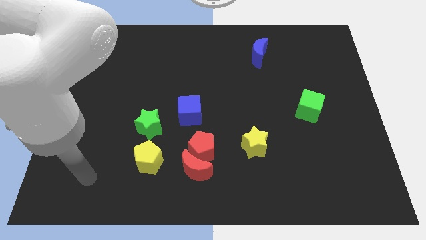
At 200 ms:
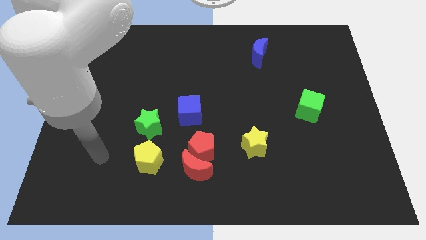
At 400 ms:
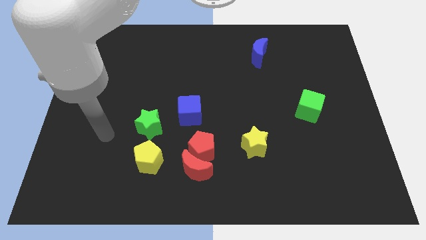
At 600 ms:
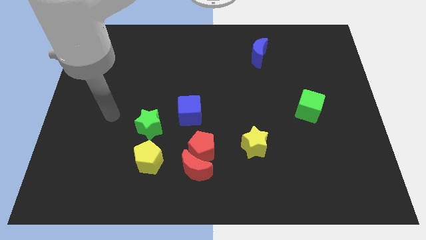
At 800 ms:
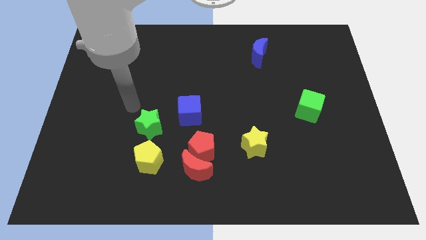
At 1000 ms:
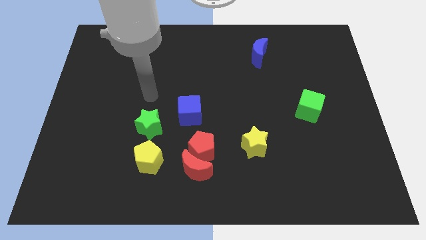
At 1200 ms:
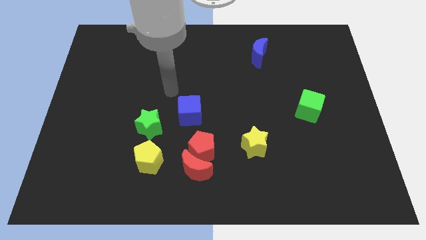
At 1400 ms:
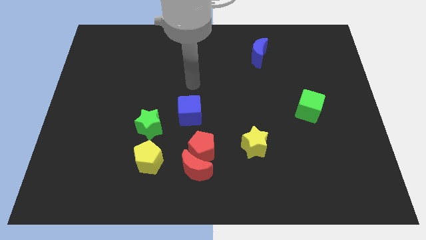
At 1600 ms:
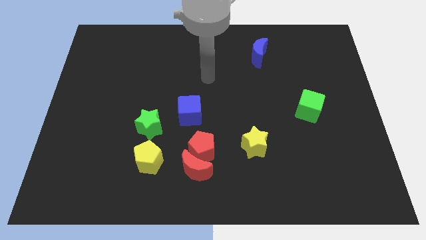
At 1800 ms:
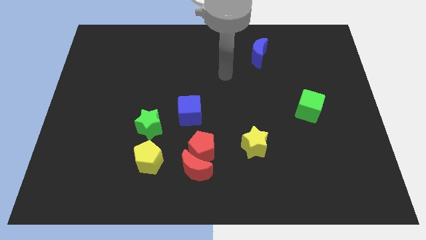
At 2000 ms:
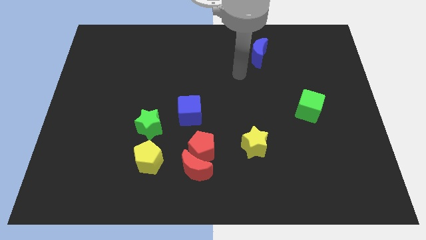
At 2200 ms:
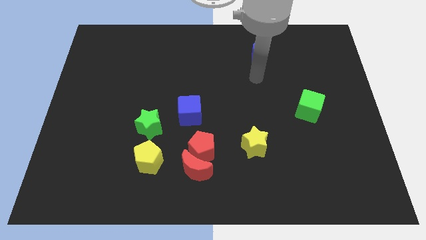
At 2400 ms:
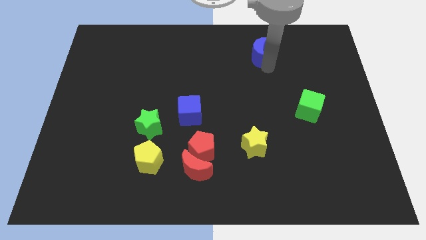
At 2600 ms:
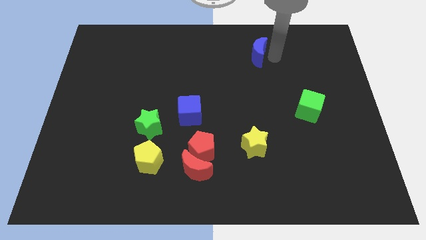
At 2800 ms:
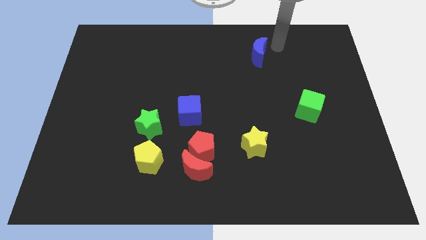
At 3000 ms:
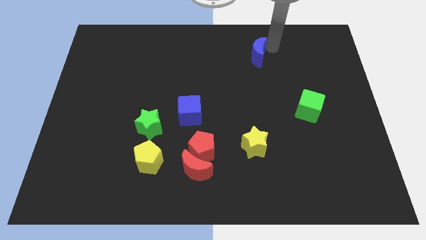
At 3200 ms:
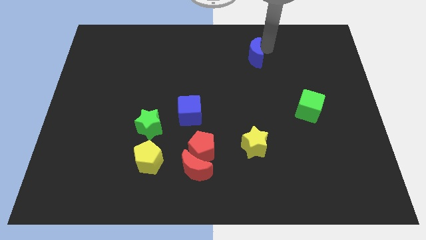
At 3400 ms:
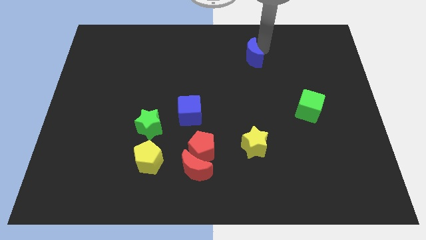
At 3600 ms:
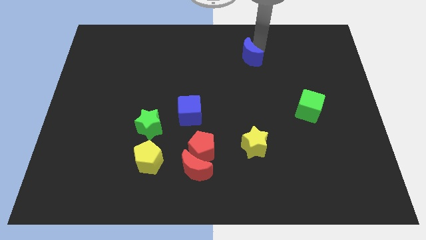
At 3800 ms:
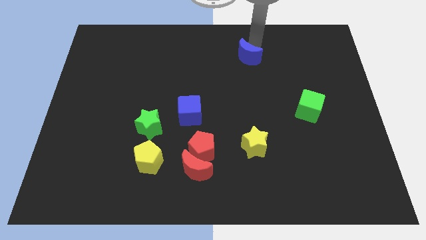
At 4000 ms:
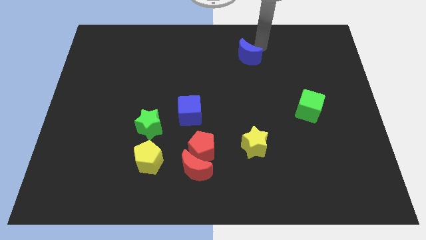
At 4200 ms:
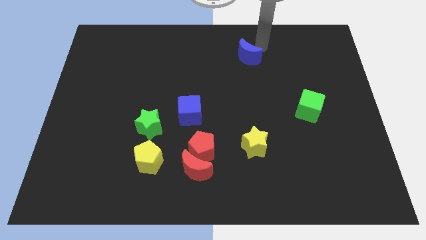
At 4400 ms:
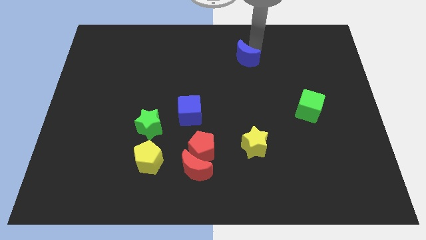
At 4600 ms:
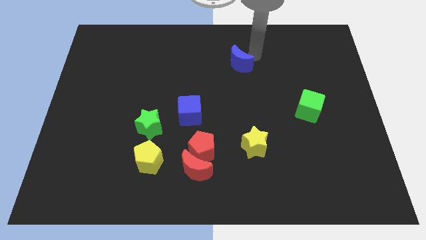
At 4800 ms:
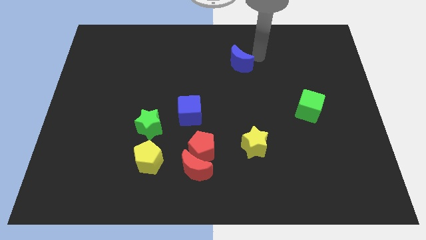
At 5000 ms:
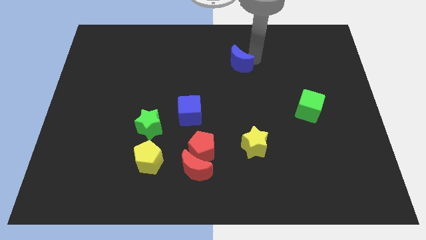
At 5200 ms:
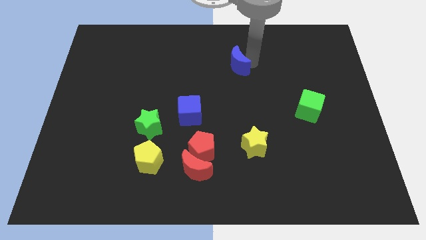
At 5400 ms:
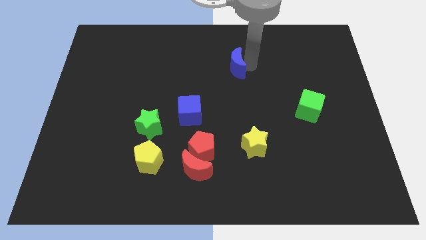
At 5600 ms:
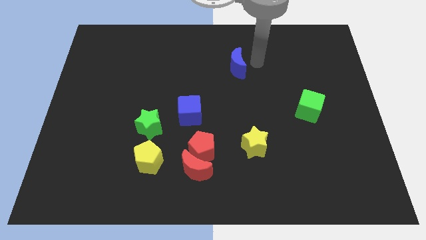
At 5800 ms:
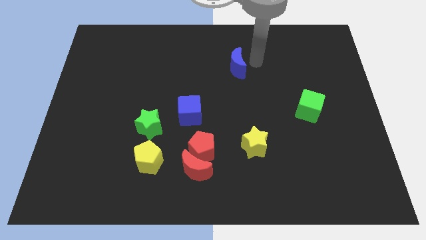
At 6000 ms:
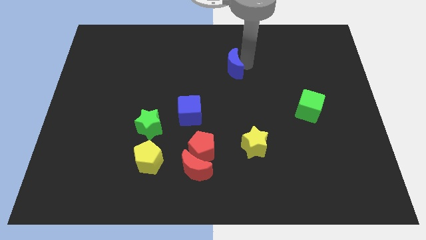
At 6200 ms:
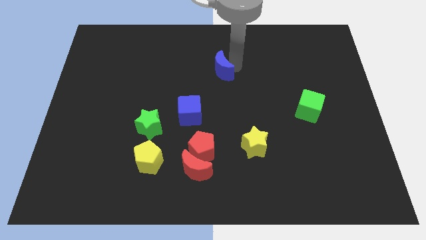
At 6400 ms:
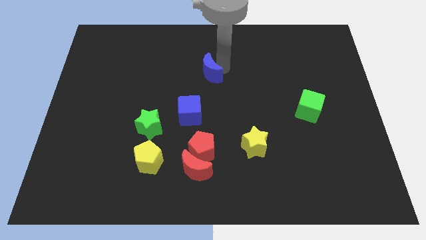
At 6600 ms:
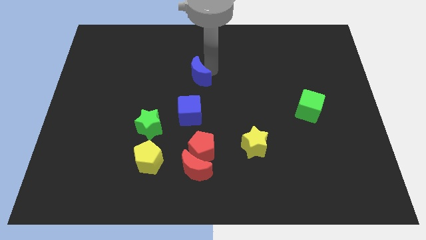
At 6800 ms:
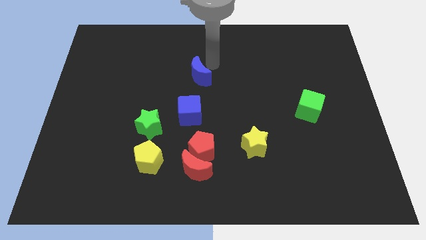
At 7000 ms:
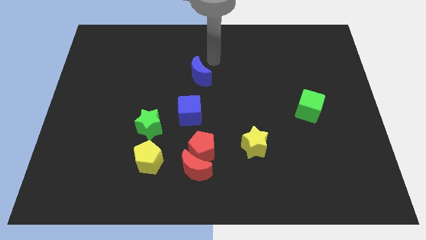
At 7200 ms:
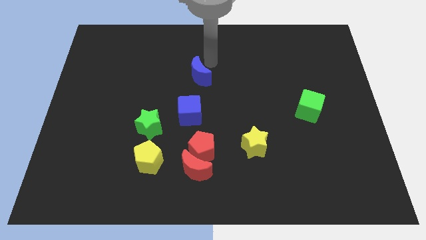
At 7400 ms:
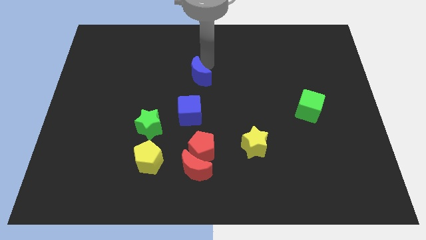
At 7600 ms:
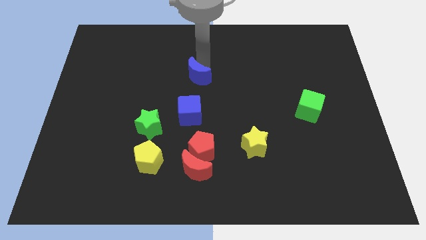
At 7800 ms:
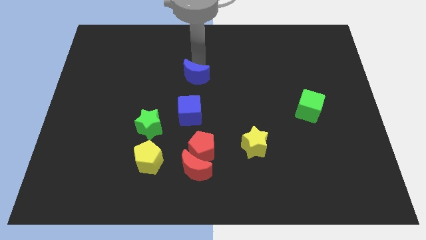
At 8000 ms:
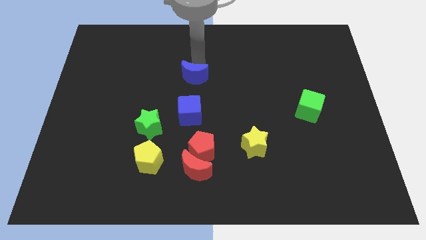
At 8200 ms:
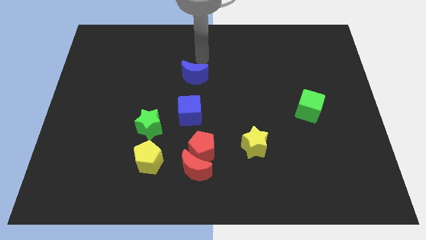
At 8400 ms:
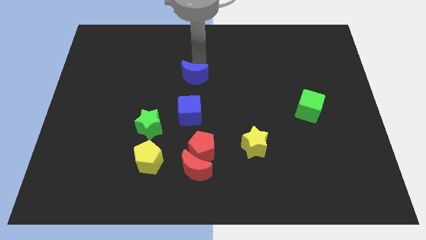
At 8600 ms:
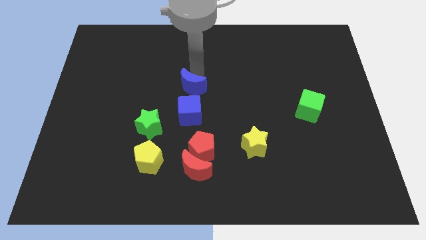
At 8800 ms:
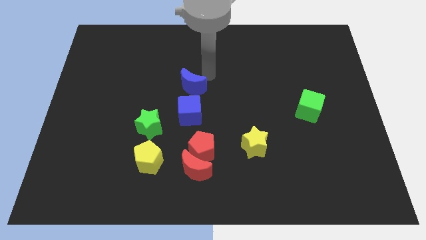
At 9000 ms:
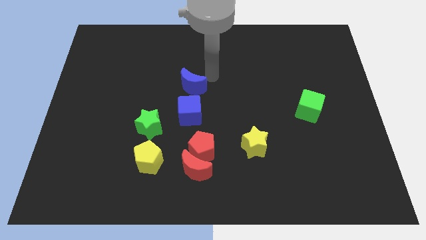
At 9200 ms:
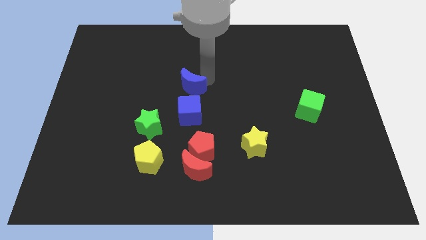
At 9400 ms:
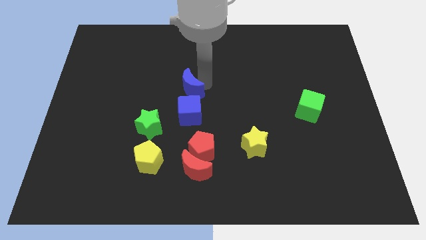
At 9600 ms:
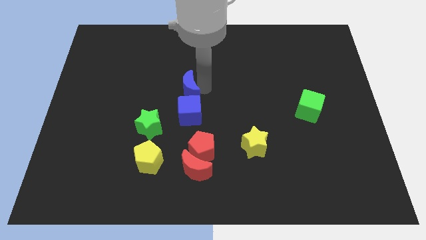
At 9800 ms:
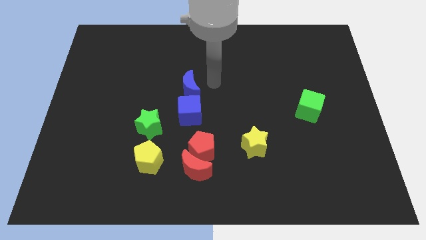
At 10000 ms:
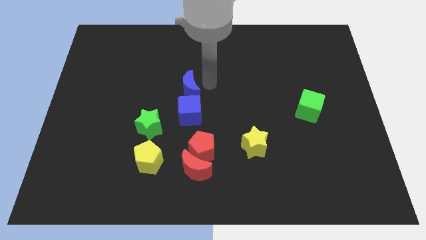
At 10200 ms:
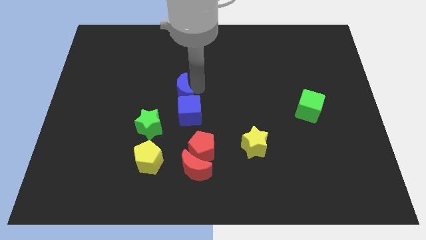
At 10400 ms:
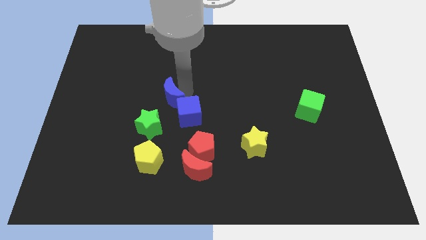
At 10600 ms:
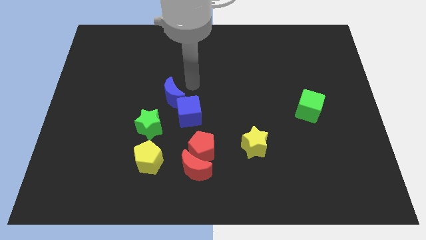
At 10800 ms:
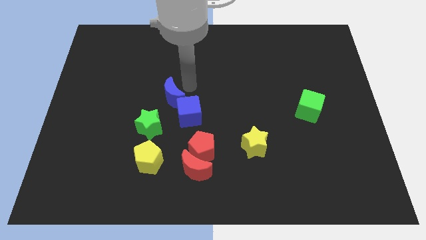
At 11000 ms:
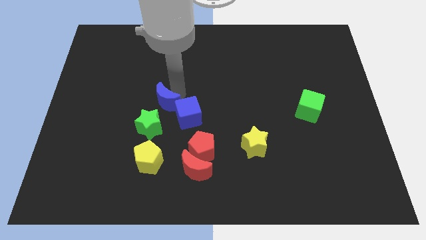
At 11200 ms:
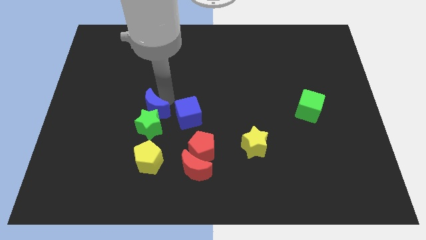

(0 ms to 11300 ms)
push the blue moon to the green star

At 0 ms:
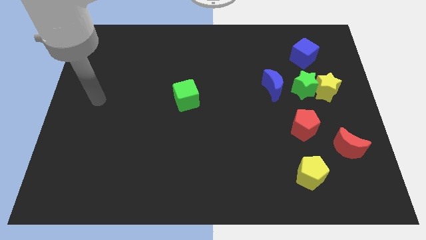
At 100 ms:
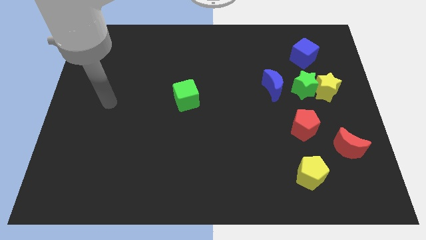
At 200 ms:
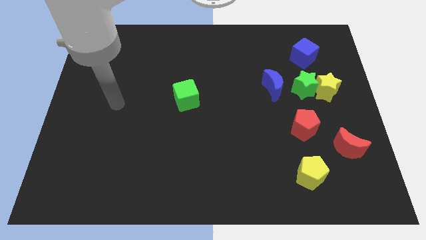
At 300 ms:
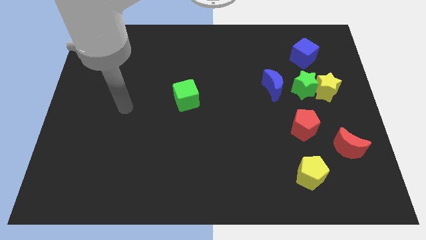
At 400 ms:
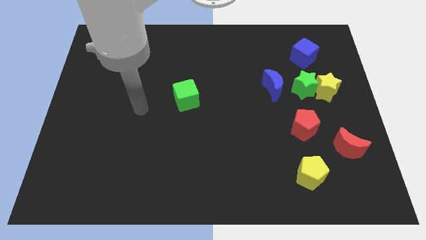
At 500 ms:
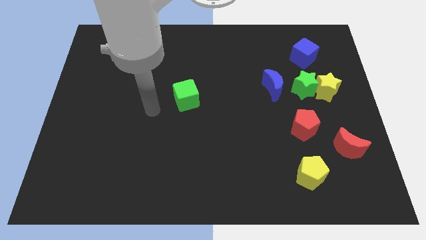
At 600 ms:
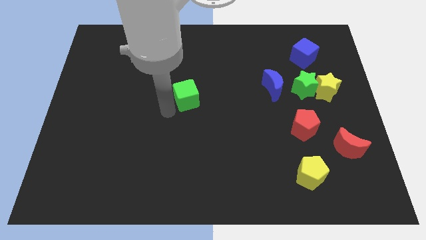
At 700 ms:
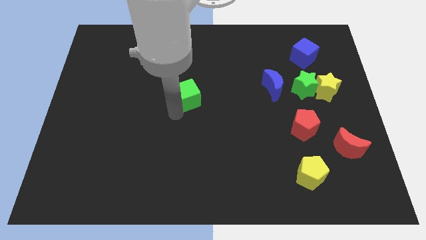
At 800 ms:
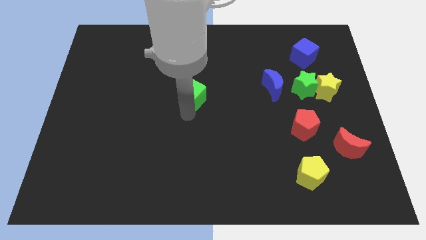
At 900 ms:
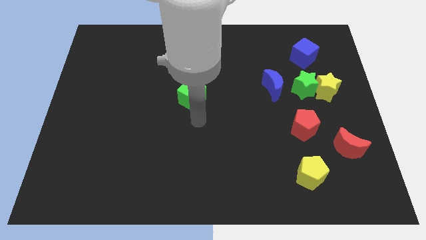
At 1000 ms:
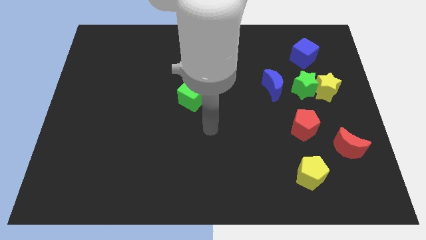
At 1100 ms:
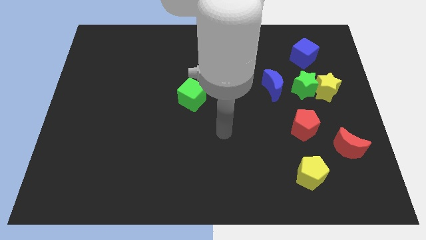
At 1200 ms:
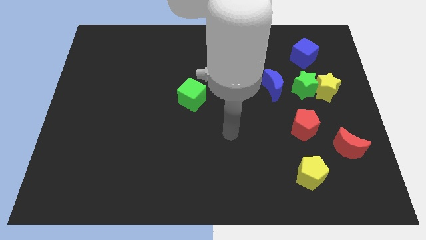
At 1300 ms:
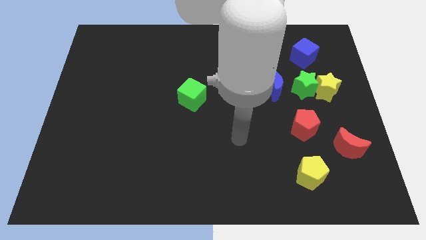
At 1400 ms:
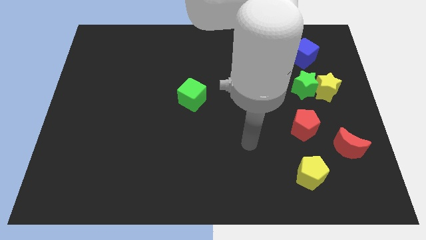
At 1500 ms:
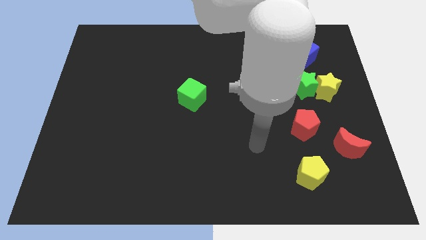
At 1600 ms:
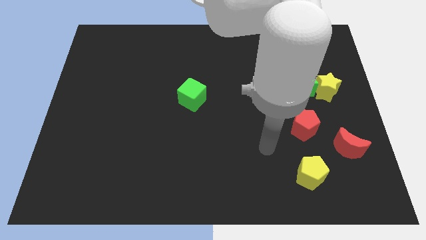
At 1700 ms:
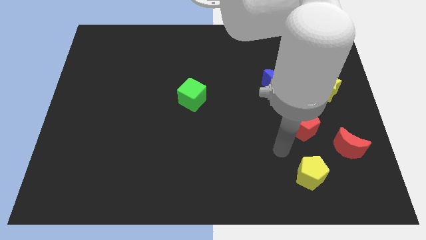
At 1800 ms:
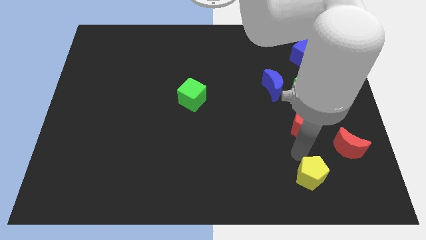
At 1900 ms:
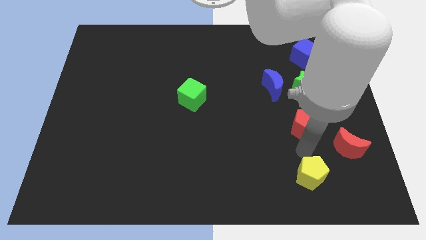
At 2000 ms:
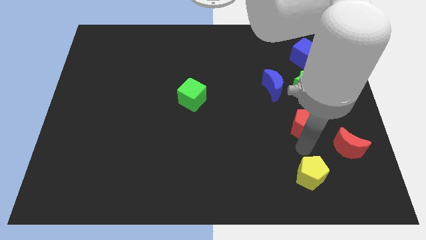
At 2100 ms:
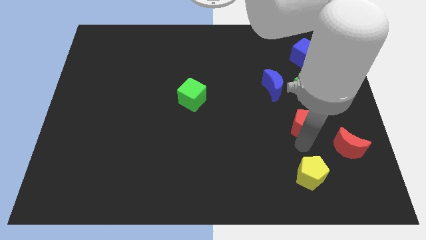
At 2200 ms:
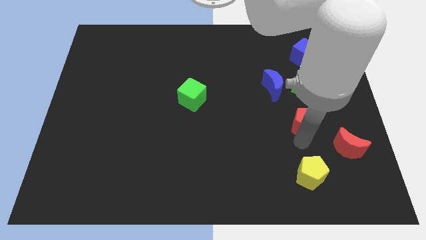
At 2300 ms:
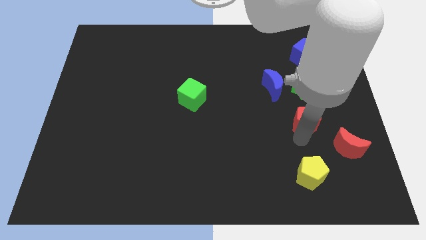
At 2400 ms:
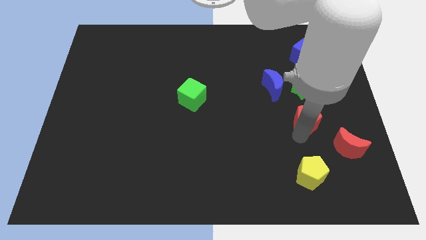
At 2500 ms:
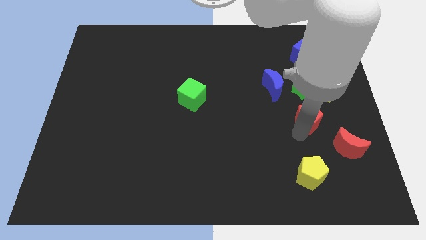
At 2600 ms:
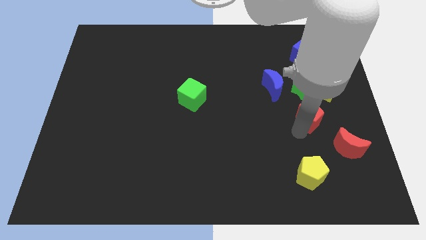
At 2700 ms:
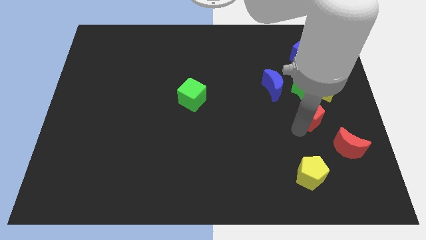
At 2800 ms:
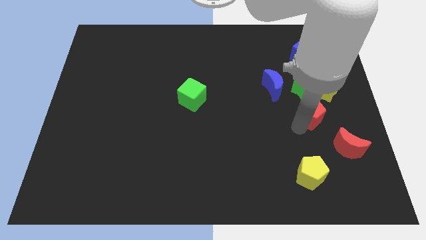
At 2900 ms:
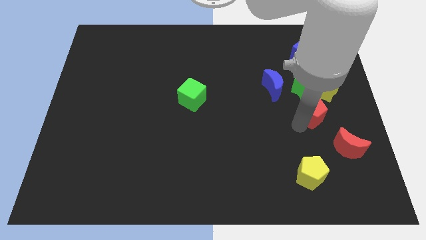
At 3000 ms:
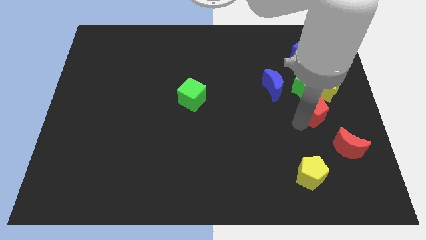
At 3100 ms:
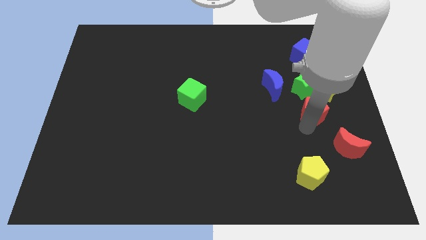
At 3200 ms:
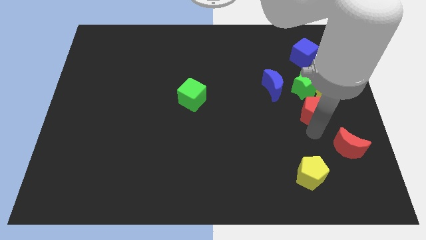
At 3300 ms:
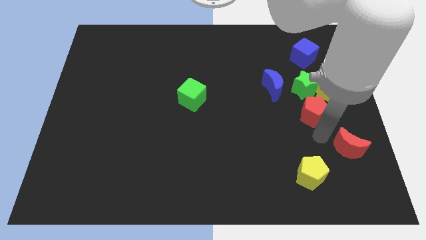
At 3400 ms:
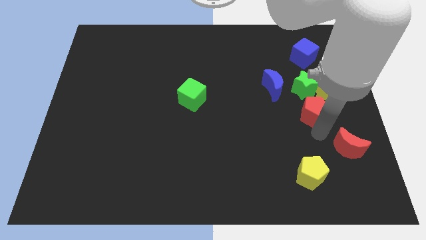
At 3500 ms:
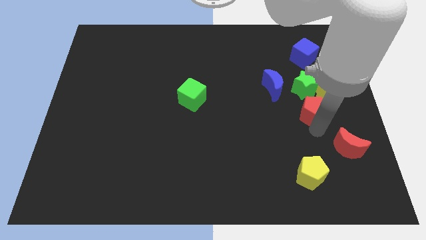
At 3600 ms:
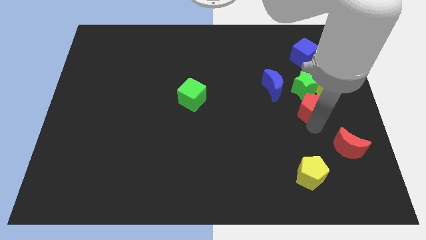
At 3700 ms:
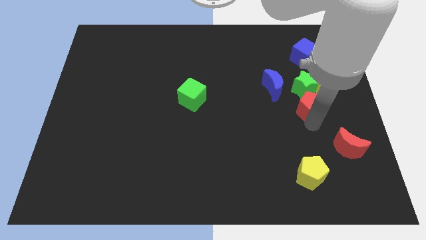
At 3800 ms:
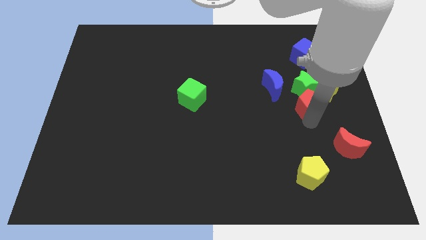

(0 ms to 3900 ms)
move the red pentagon towards the green star
